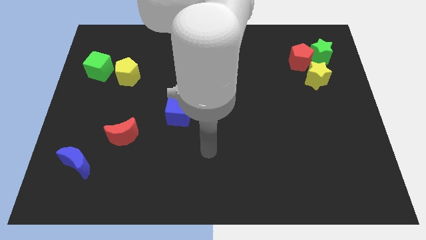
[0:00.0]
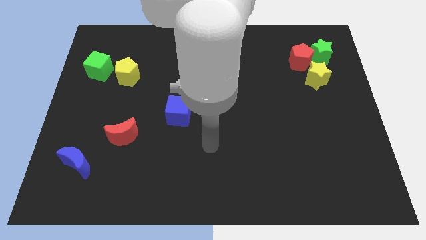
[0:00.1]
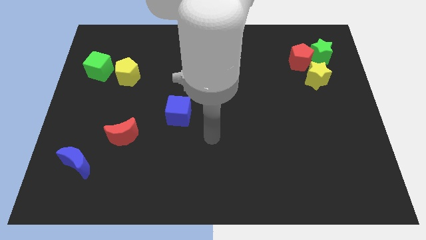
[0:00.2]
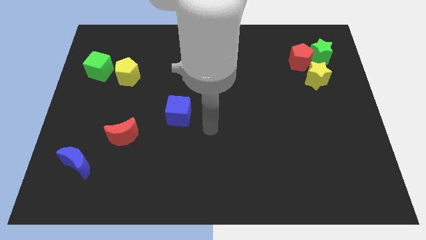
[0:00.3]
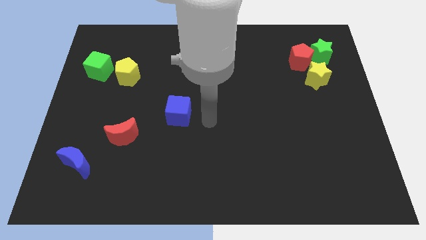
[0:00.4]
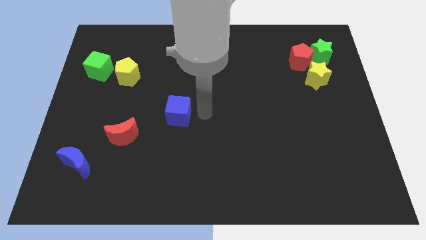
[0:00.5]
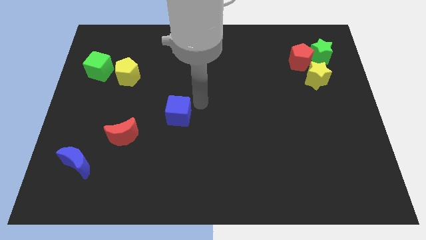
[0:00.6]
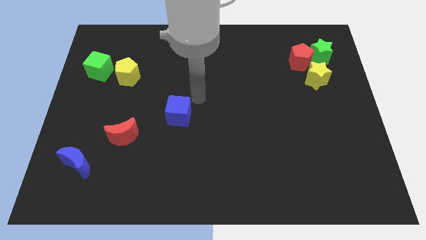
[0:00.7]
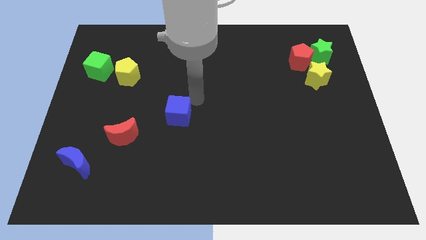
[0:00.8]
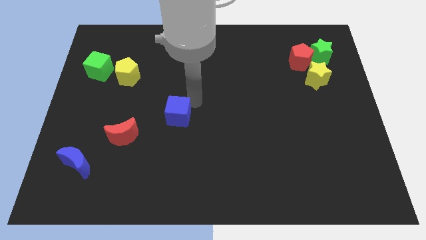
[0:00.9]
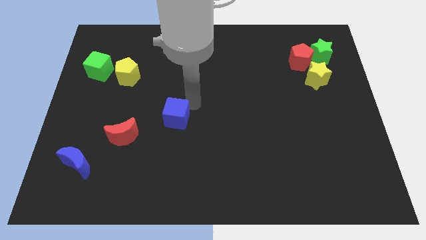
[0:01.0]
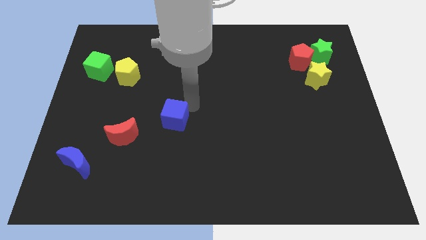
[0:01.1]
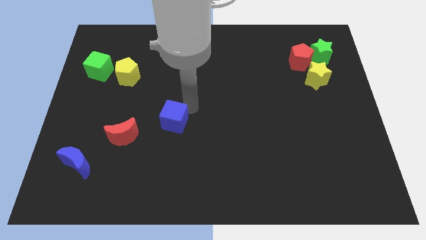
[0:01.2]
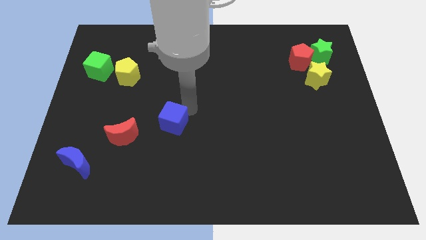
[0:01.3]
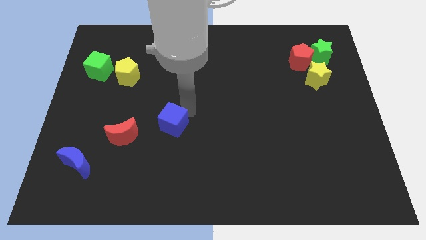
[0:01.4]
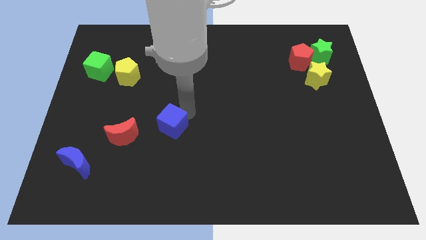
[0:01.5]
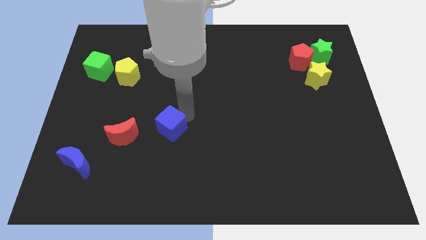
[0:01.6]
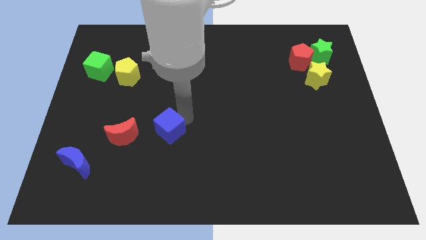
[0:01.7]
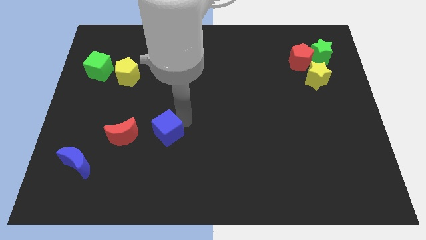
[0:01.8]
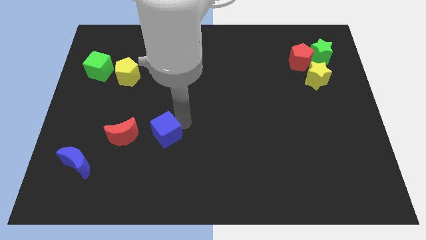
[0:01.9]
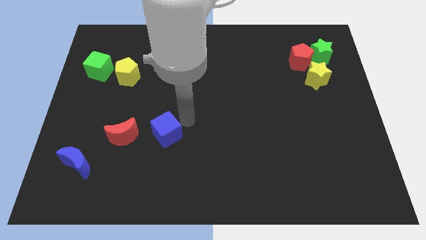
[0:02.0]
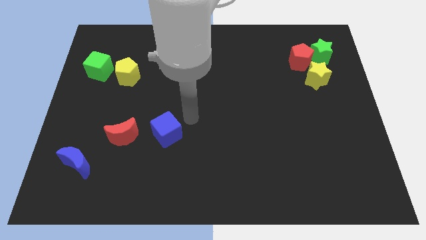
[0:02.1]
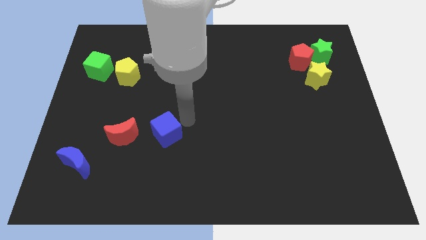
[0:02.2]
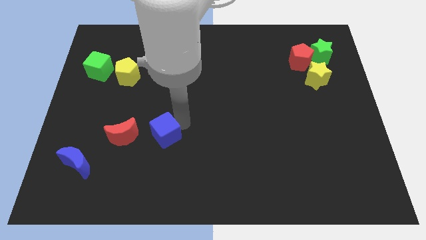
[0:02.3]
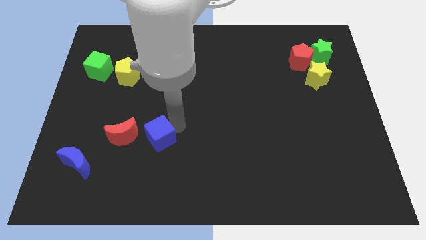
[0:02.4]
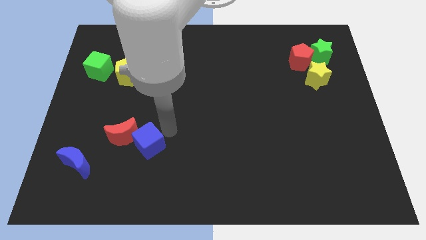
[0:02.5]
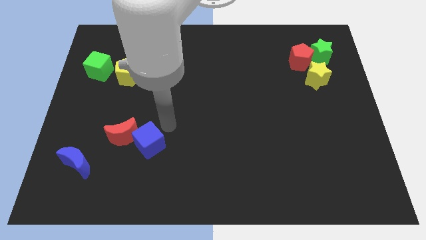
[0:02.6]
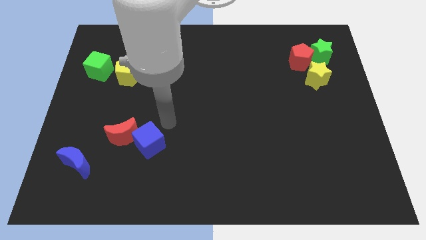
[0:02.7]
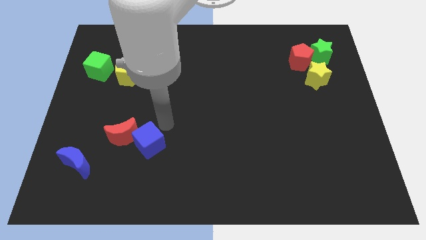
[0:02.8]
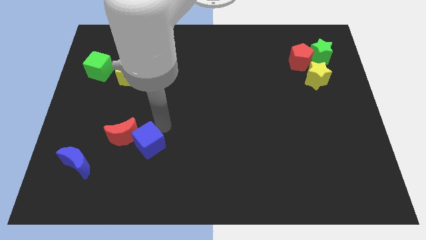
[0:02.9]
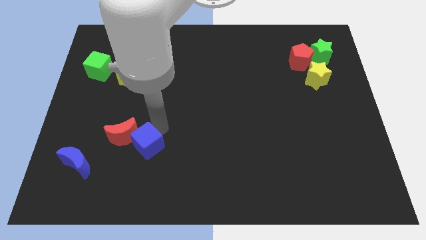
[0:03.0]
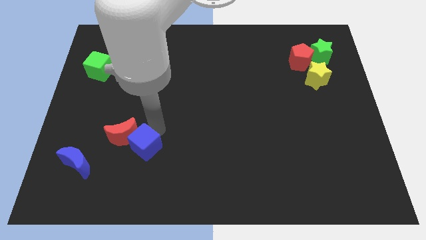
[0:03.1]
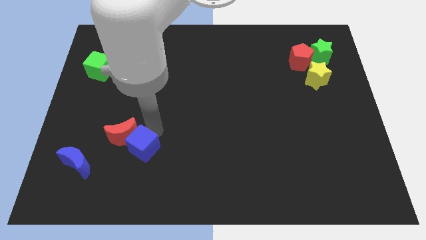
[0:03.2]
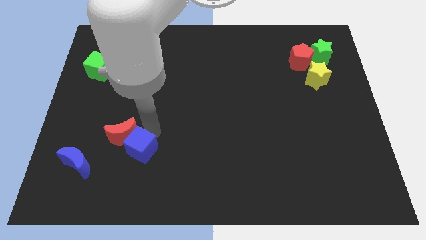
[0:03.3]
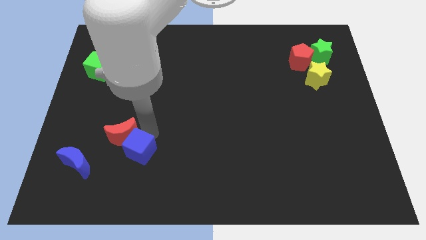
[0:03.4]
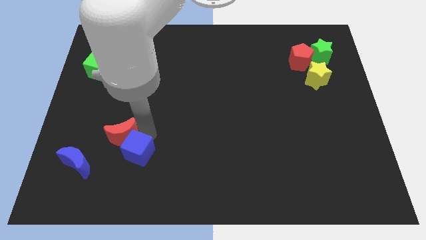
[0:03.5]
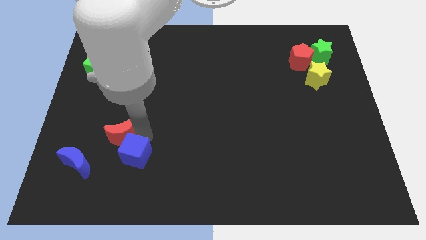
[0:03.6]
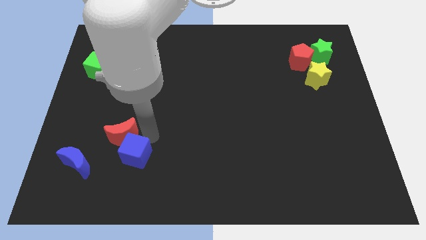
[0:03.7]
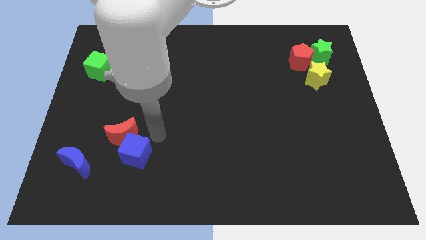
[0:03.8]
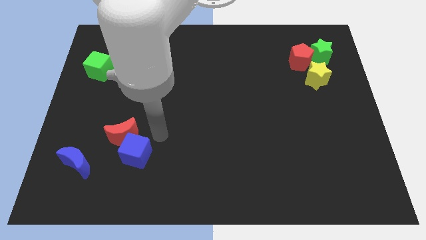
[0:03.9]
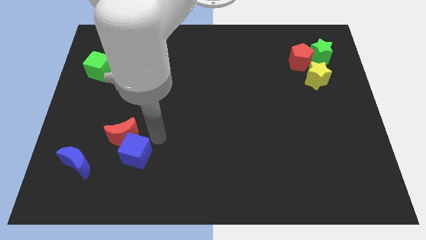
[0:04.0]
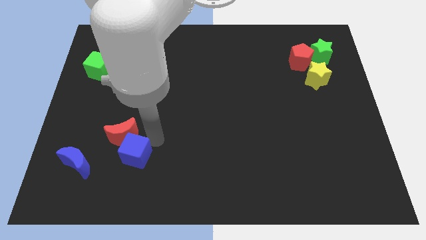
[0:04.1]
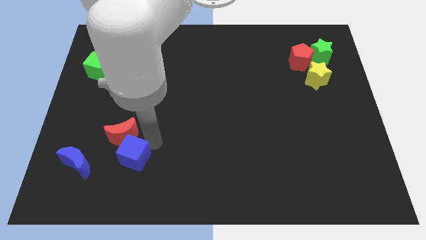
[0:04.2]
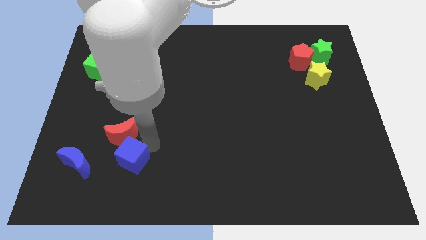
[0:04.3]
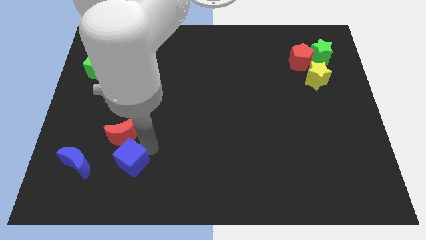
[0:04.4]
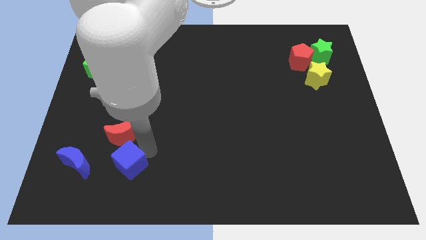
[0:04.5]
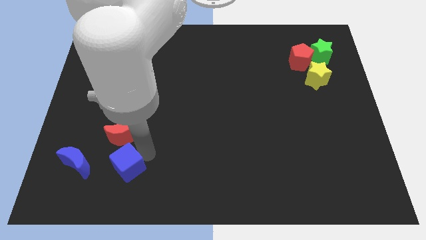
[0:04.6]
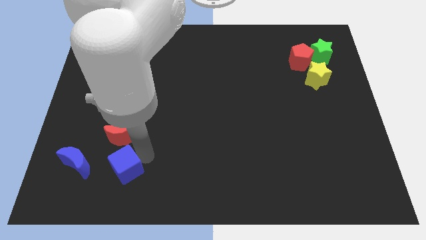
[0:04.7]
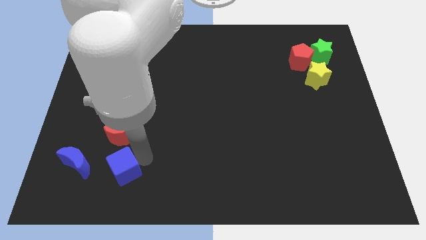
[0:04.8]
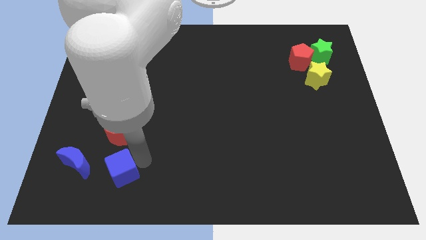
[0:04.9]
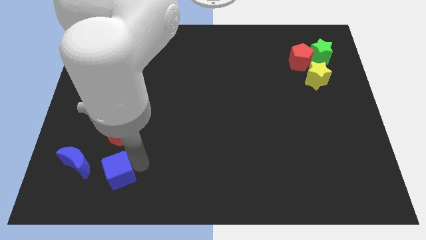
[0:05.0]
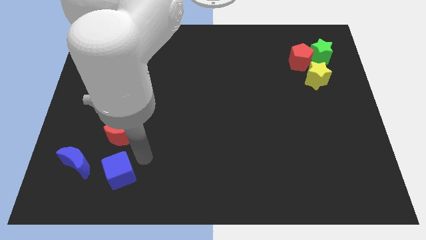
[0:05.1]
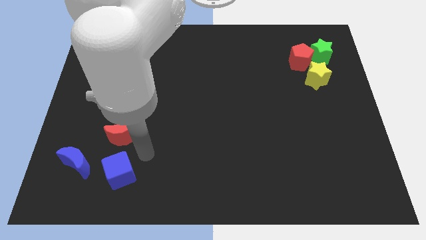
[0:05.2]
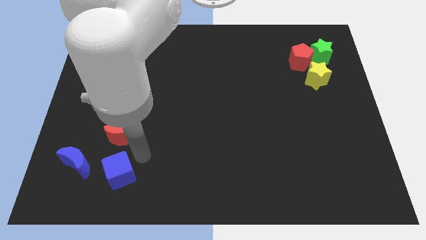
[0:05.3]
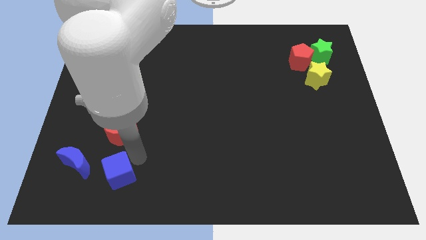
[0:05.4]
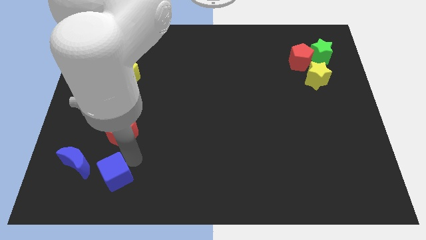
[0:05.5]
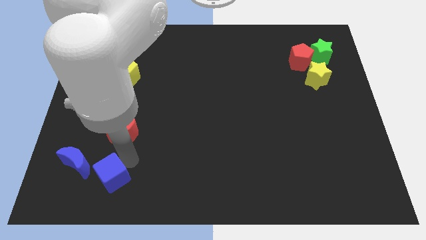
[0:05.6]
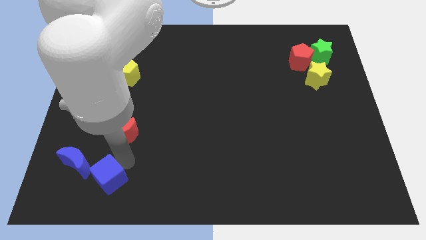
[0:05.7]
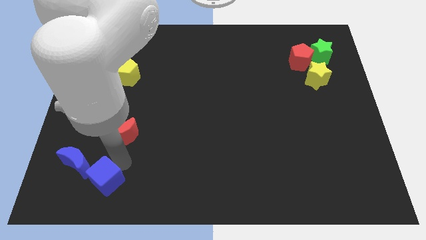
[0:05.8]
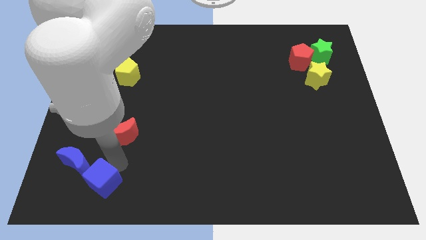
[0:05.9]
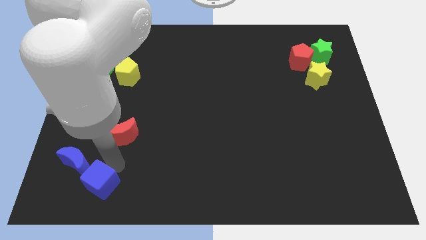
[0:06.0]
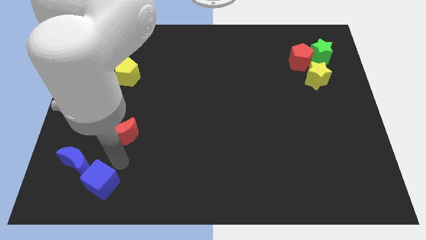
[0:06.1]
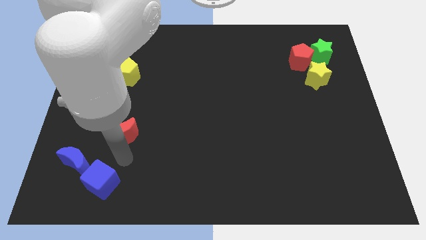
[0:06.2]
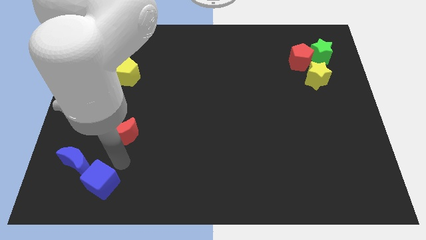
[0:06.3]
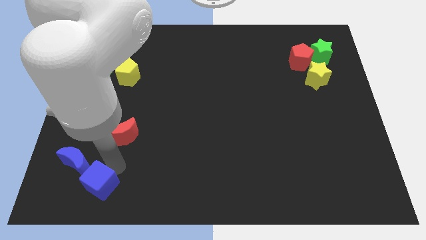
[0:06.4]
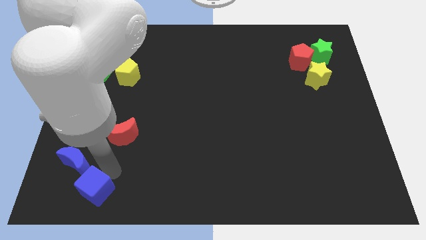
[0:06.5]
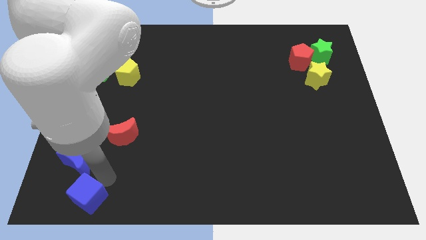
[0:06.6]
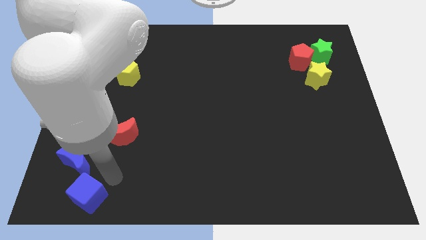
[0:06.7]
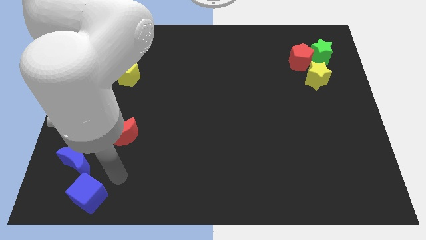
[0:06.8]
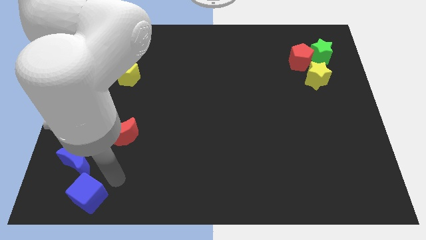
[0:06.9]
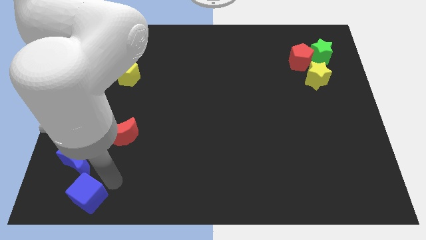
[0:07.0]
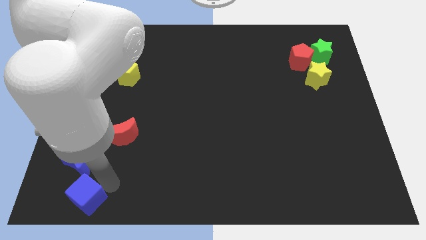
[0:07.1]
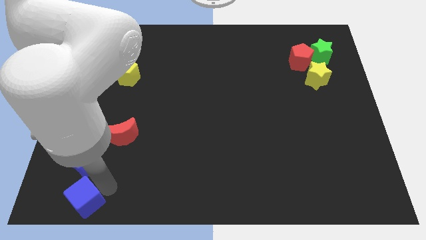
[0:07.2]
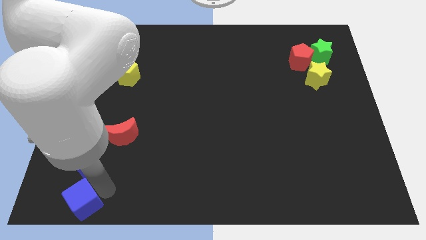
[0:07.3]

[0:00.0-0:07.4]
move the blue cube to the bottom left of the board
